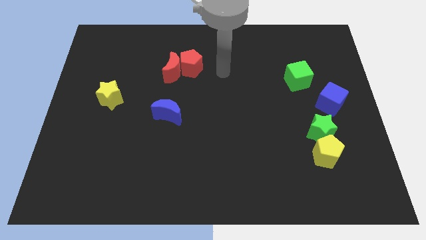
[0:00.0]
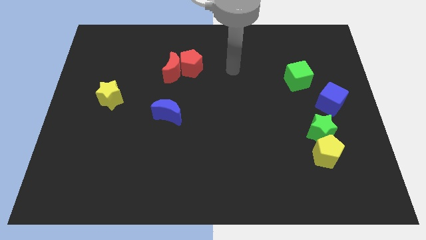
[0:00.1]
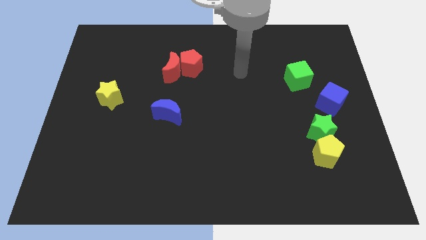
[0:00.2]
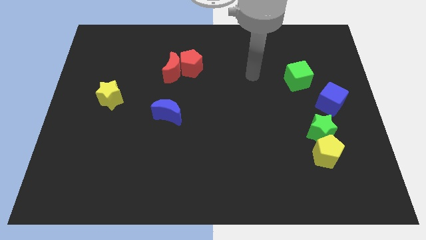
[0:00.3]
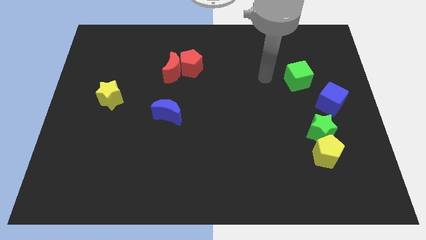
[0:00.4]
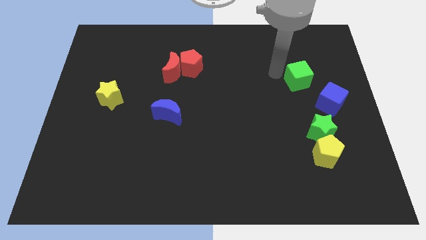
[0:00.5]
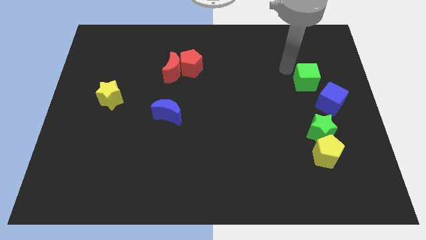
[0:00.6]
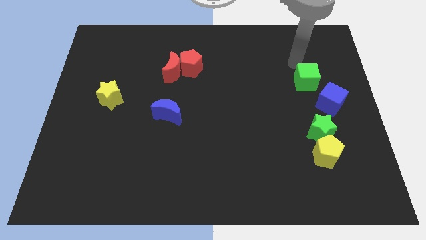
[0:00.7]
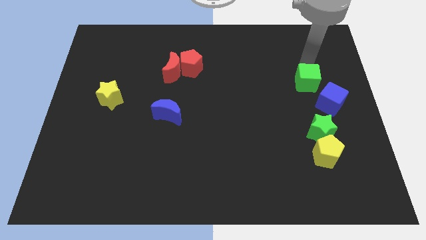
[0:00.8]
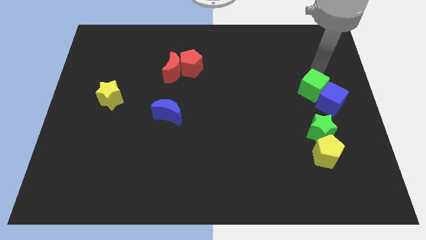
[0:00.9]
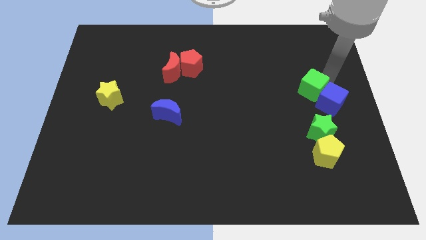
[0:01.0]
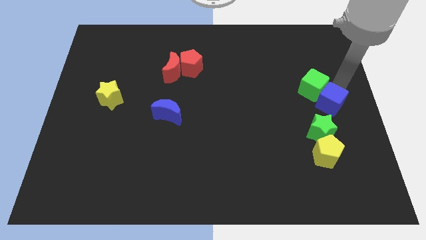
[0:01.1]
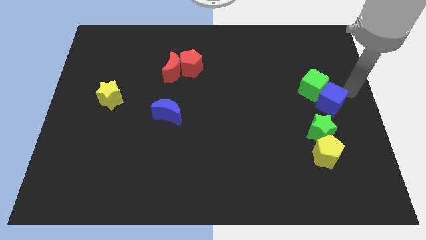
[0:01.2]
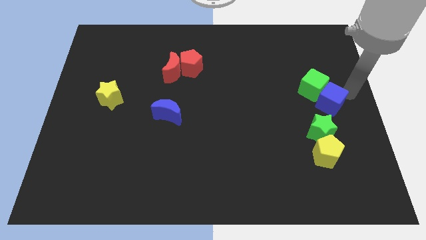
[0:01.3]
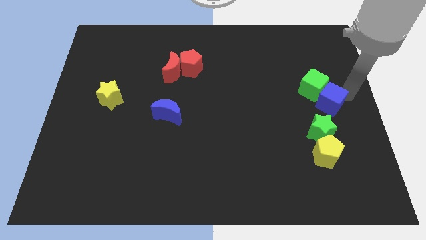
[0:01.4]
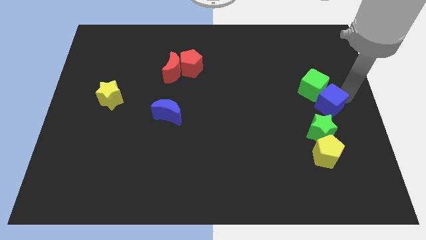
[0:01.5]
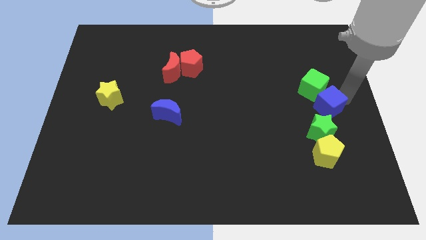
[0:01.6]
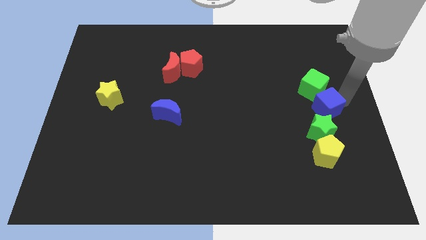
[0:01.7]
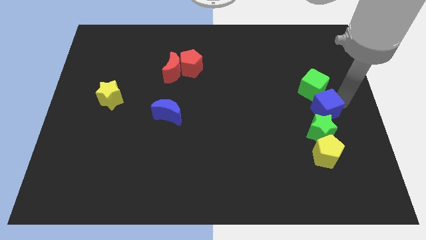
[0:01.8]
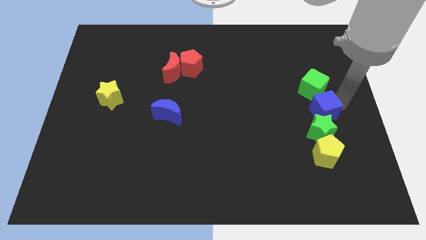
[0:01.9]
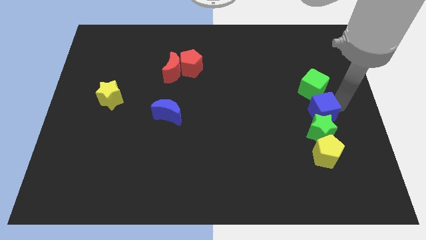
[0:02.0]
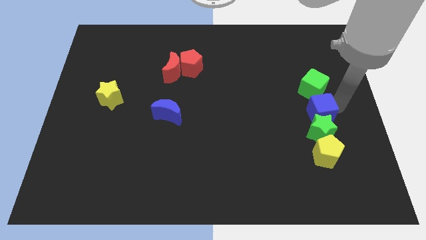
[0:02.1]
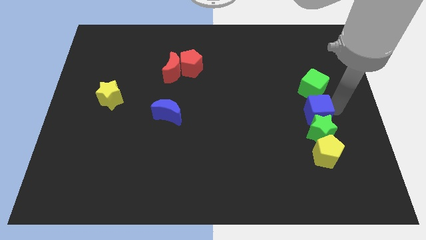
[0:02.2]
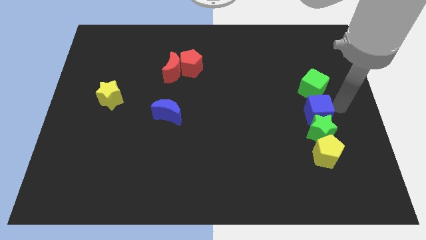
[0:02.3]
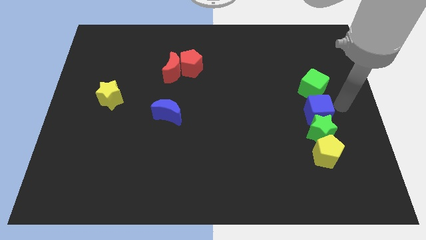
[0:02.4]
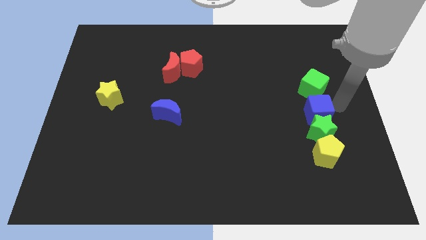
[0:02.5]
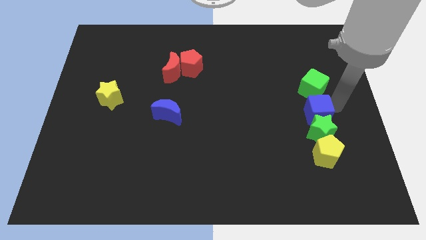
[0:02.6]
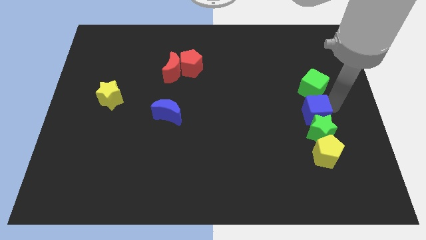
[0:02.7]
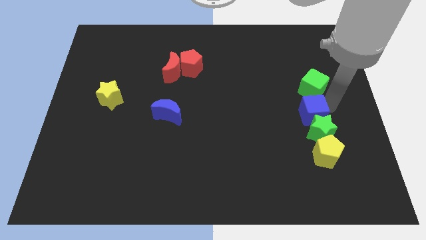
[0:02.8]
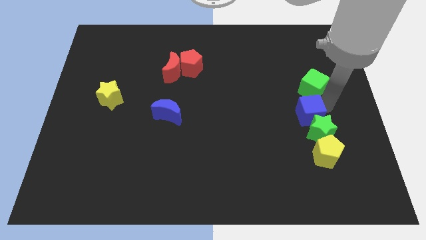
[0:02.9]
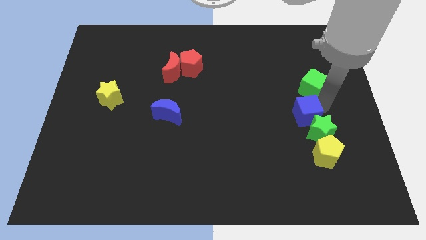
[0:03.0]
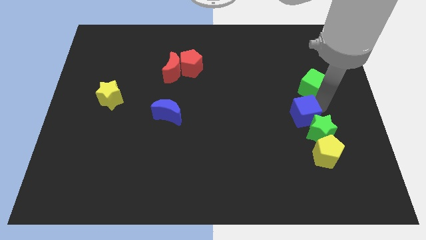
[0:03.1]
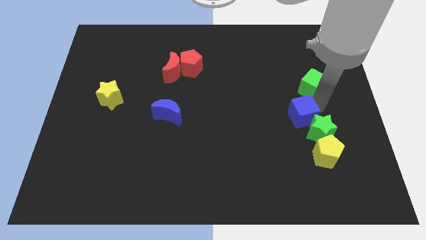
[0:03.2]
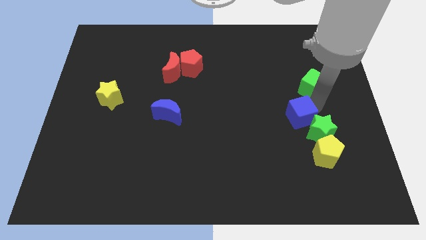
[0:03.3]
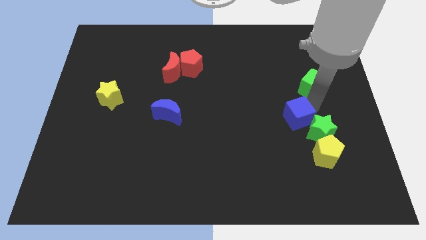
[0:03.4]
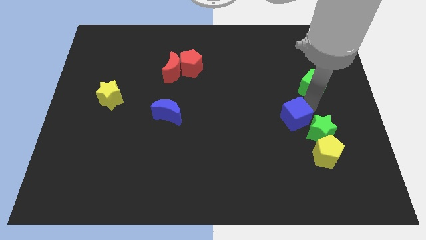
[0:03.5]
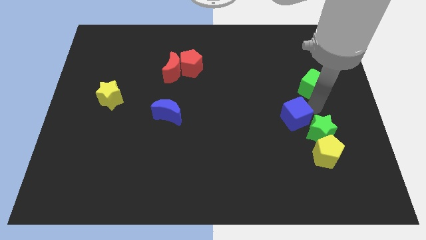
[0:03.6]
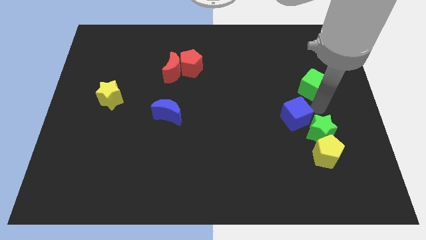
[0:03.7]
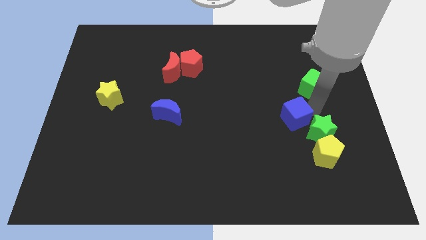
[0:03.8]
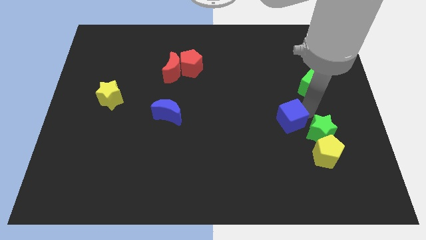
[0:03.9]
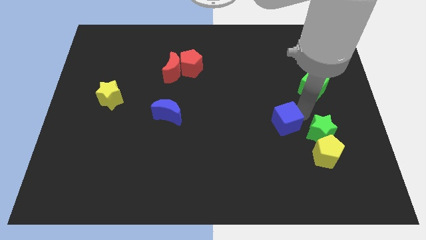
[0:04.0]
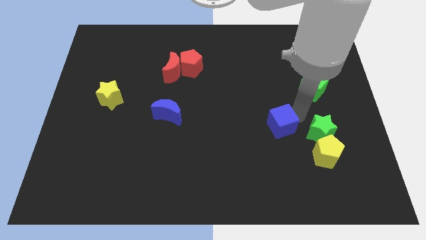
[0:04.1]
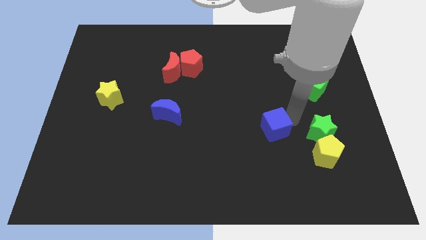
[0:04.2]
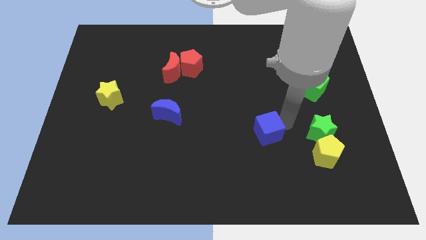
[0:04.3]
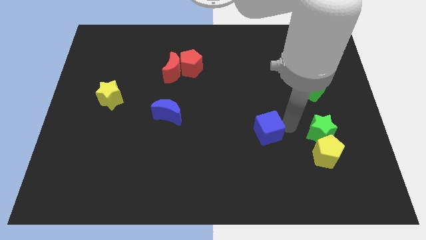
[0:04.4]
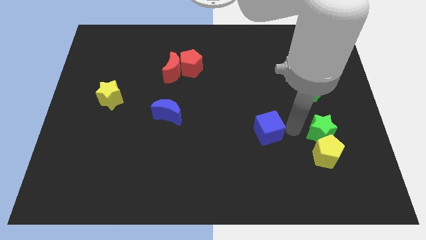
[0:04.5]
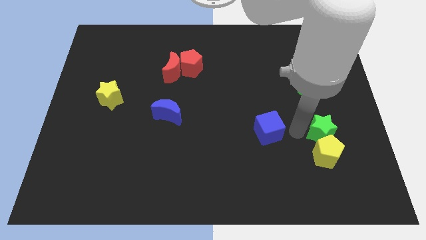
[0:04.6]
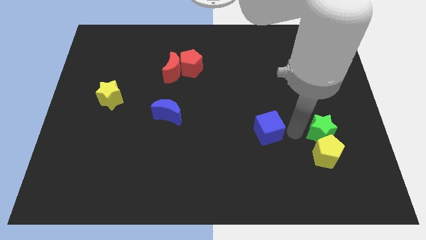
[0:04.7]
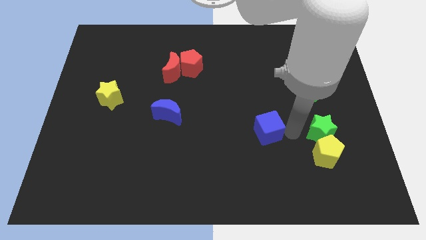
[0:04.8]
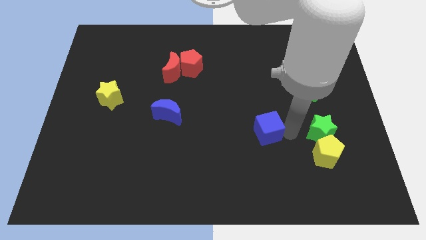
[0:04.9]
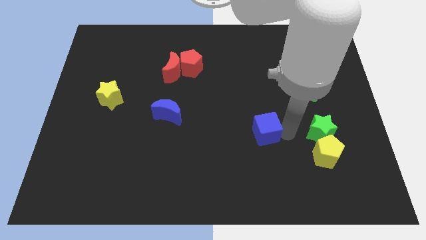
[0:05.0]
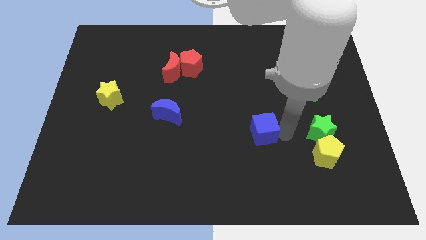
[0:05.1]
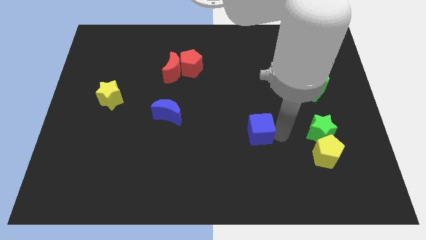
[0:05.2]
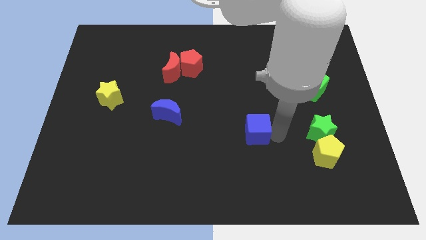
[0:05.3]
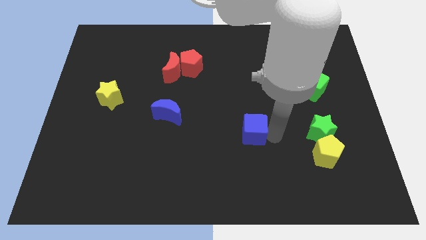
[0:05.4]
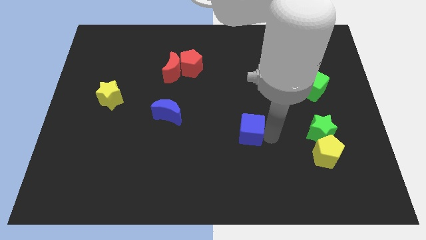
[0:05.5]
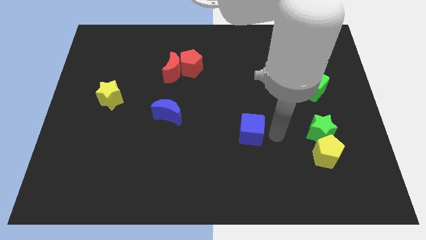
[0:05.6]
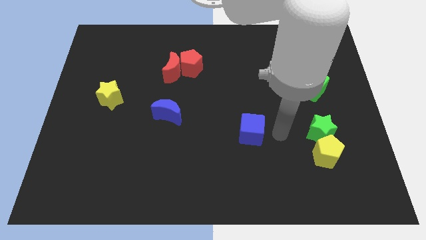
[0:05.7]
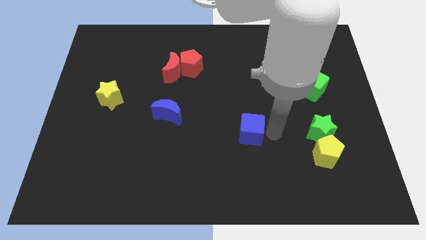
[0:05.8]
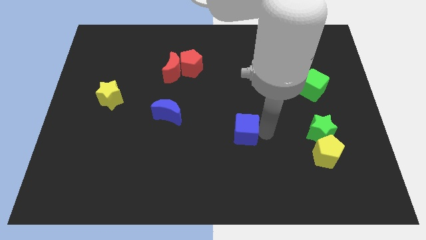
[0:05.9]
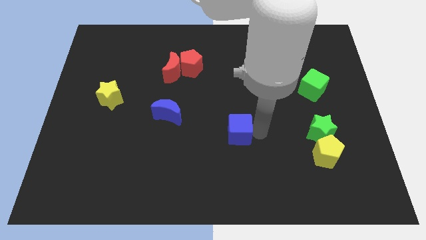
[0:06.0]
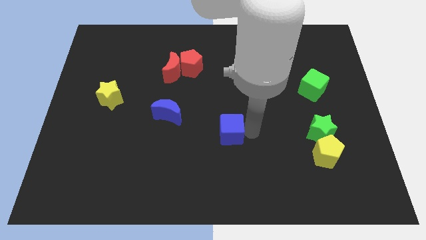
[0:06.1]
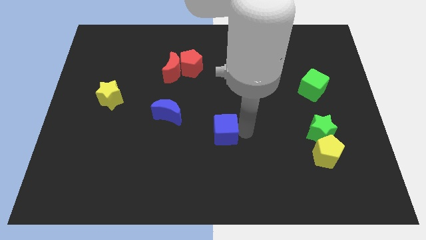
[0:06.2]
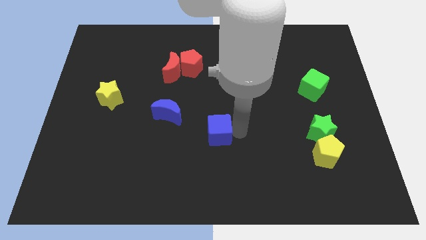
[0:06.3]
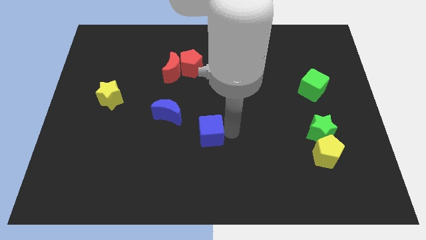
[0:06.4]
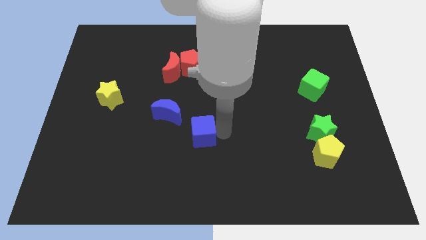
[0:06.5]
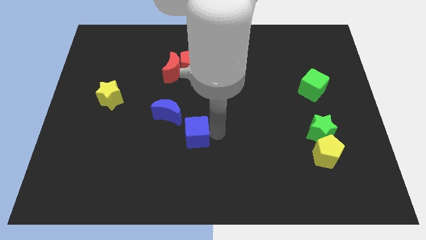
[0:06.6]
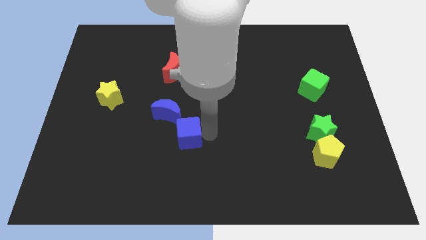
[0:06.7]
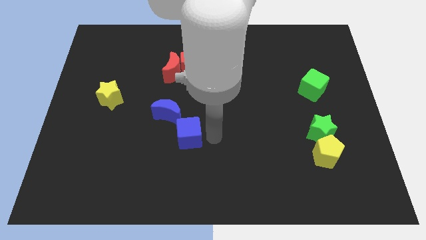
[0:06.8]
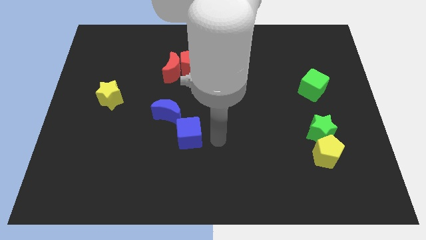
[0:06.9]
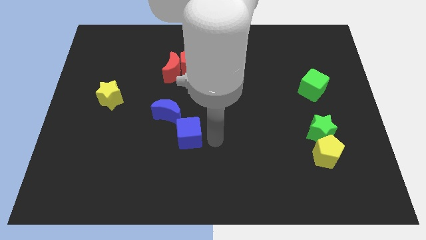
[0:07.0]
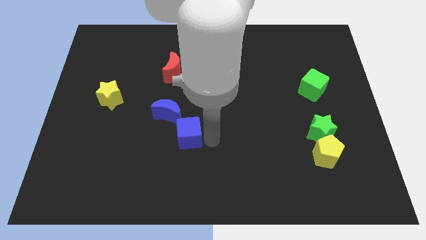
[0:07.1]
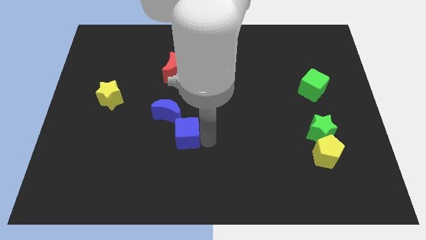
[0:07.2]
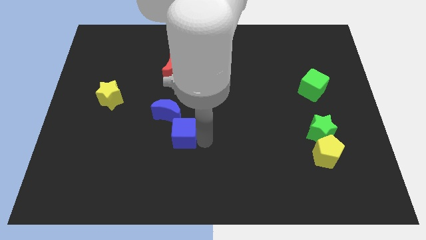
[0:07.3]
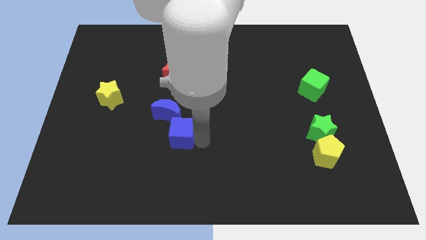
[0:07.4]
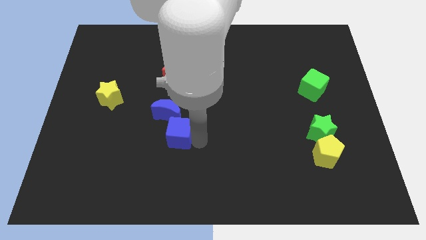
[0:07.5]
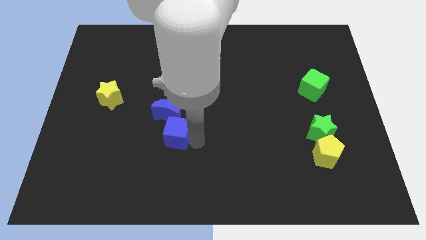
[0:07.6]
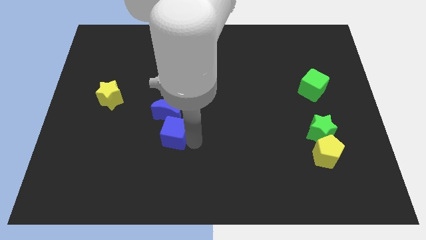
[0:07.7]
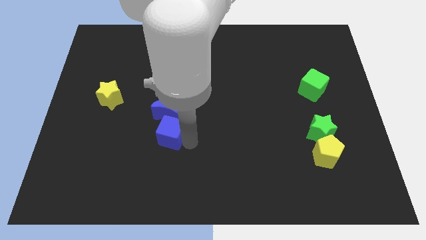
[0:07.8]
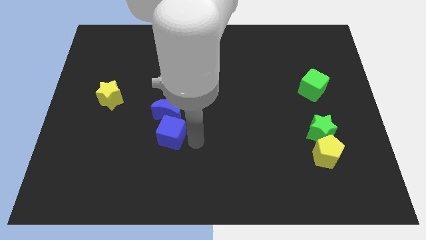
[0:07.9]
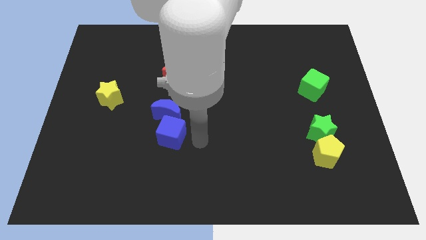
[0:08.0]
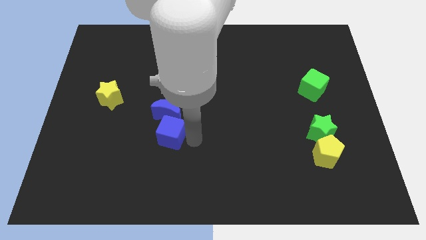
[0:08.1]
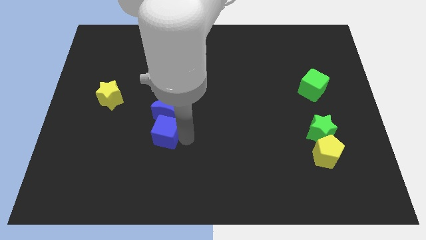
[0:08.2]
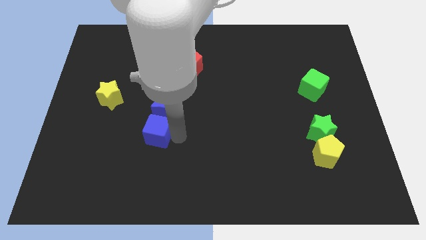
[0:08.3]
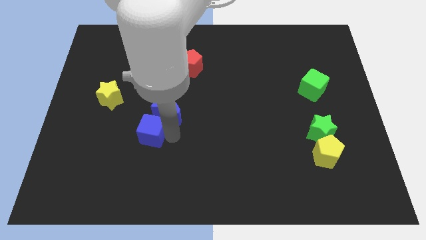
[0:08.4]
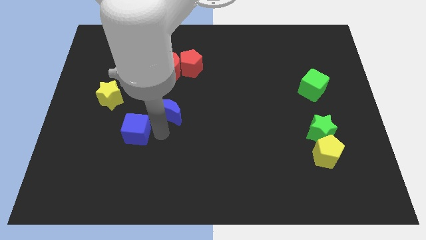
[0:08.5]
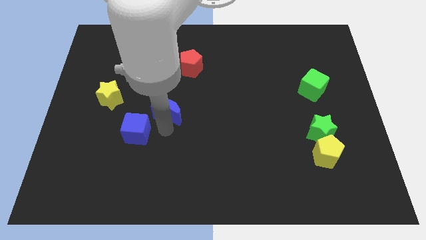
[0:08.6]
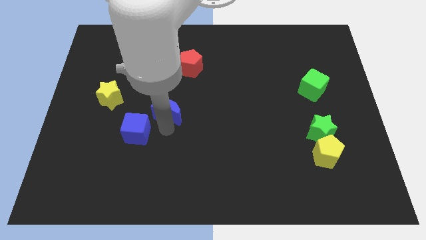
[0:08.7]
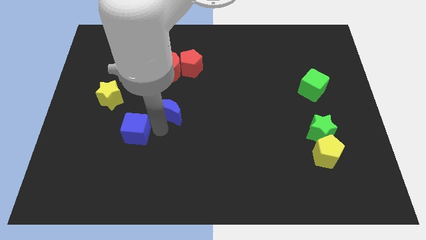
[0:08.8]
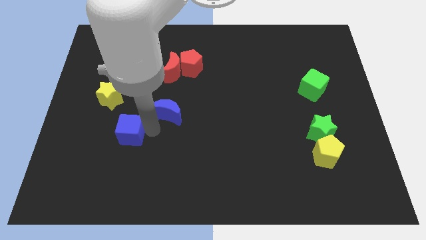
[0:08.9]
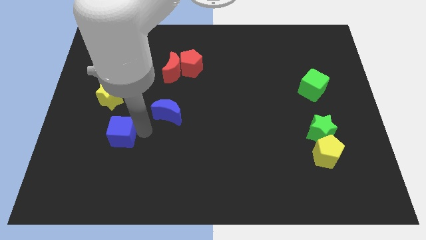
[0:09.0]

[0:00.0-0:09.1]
slide the blue cube below the yellow star
